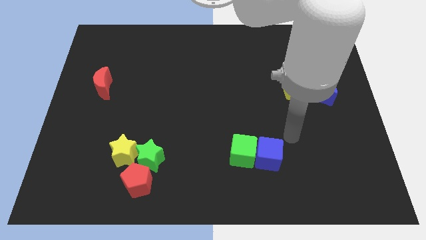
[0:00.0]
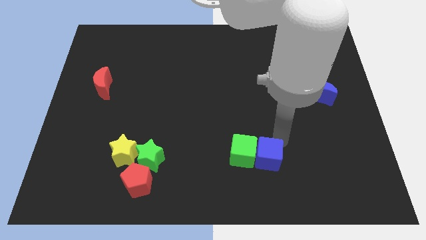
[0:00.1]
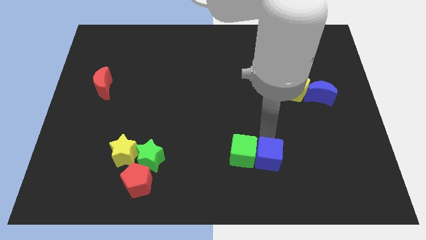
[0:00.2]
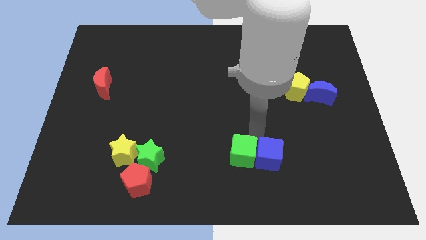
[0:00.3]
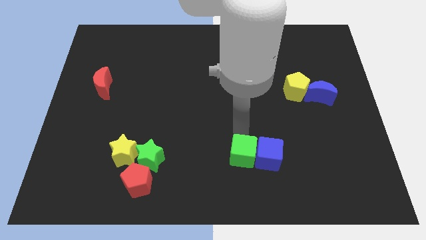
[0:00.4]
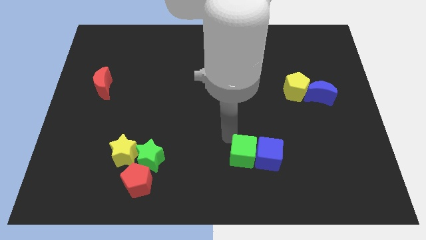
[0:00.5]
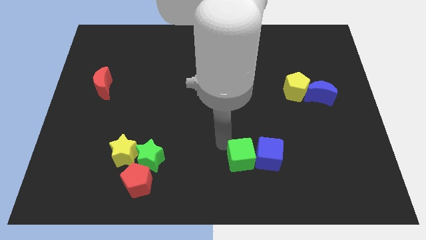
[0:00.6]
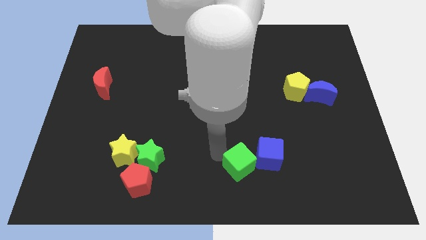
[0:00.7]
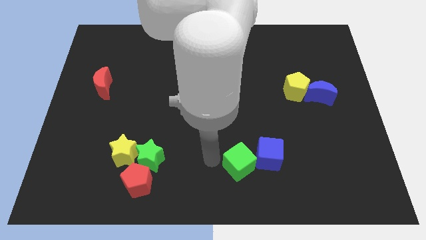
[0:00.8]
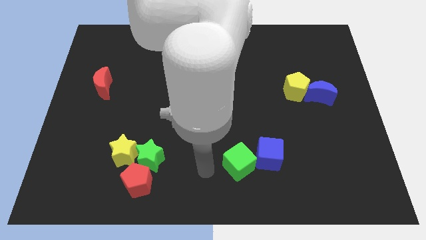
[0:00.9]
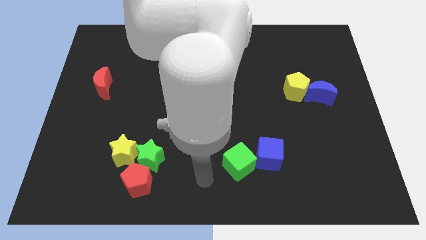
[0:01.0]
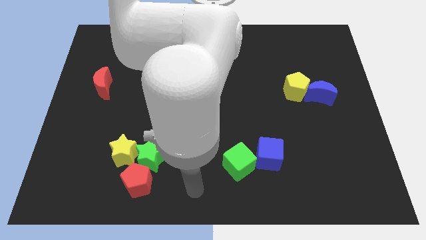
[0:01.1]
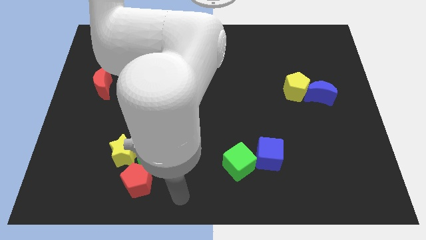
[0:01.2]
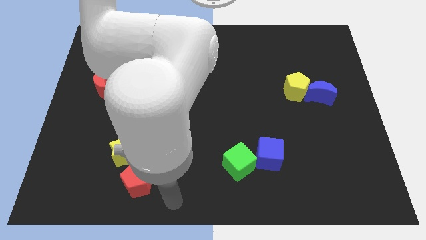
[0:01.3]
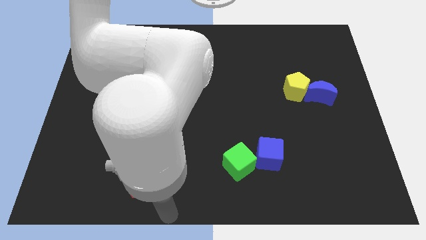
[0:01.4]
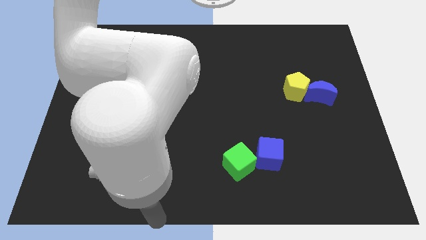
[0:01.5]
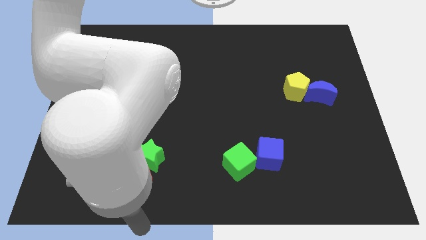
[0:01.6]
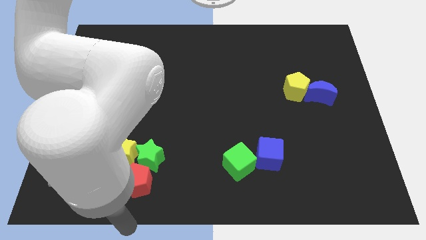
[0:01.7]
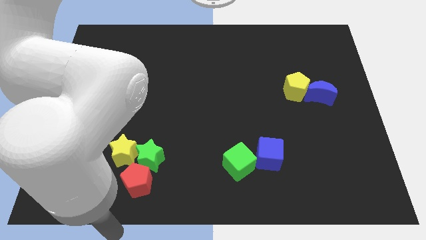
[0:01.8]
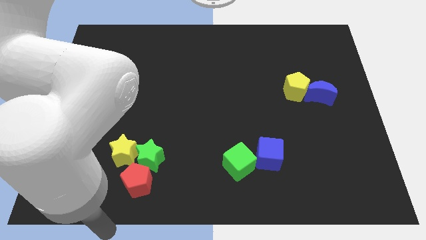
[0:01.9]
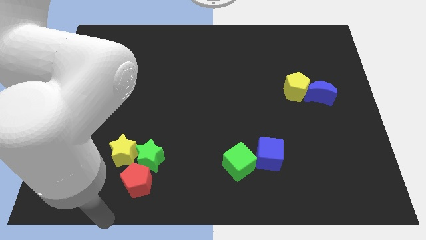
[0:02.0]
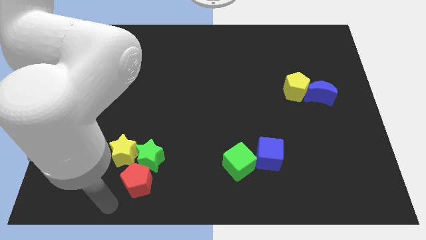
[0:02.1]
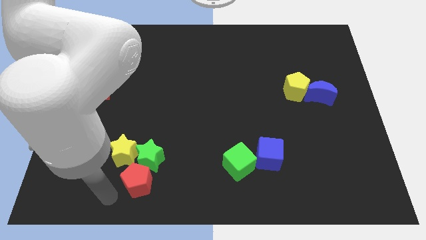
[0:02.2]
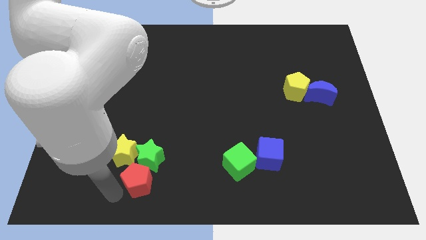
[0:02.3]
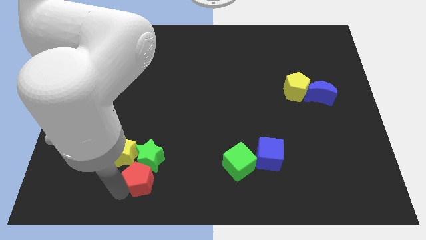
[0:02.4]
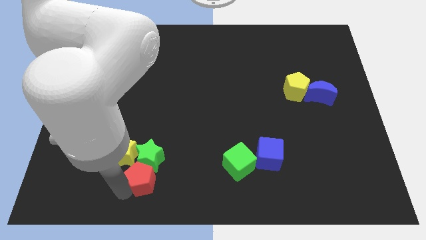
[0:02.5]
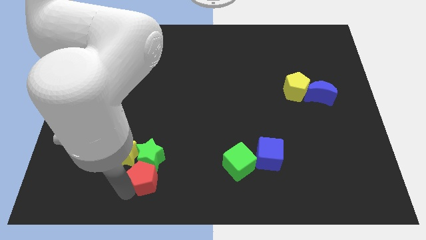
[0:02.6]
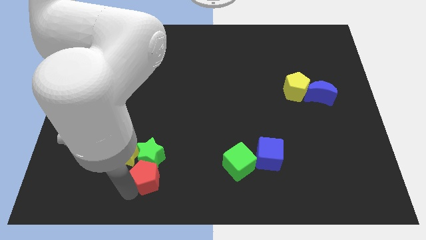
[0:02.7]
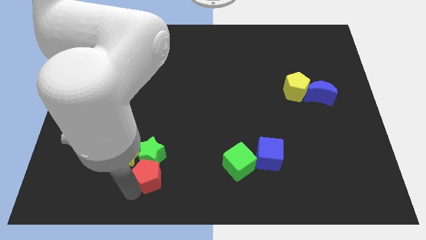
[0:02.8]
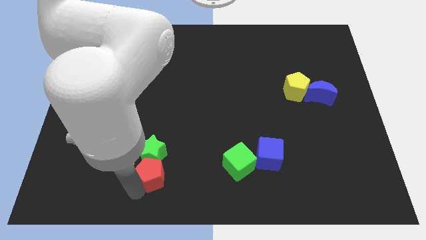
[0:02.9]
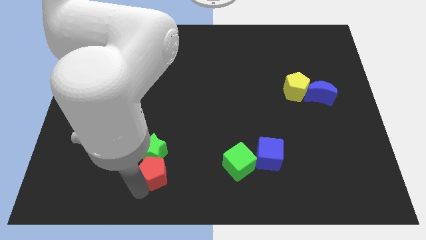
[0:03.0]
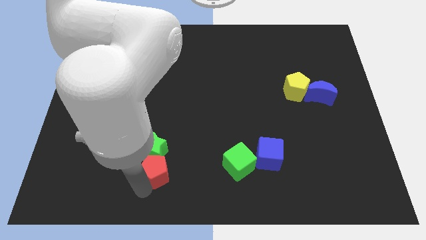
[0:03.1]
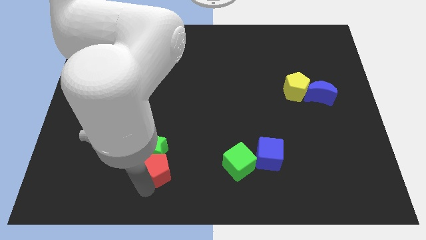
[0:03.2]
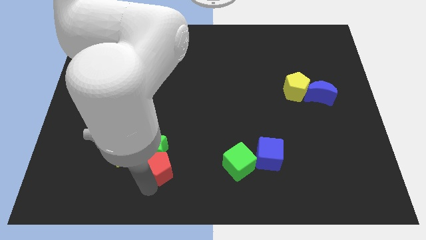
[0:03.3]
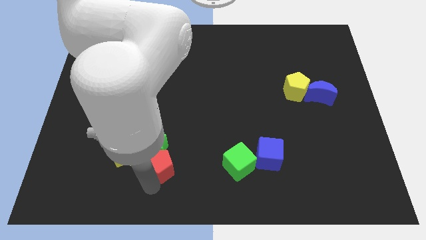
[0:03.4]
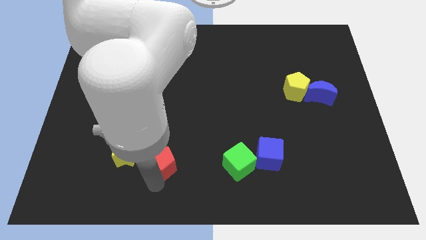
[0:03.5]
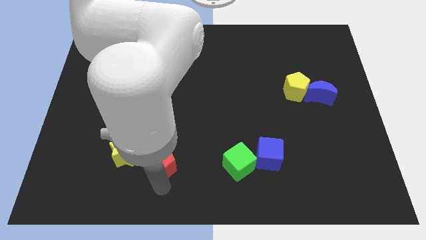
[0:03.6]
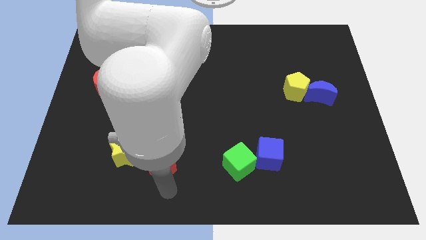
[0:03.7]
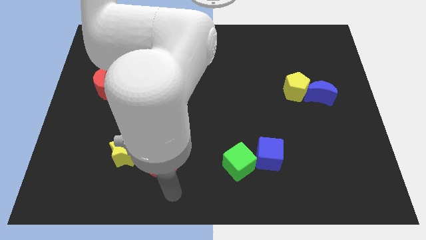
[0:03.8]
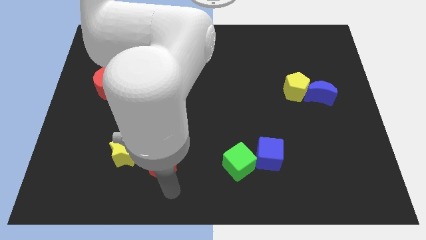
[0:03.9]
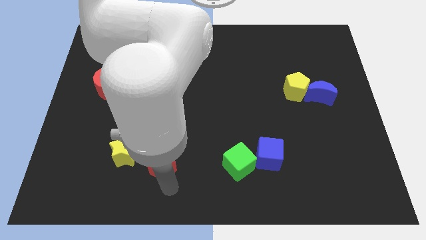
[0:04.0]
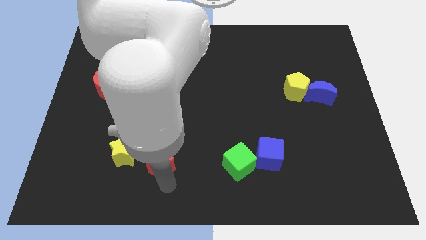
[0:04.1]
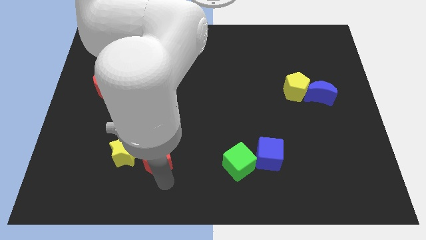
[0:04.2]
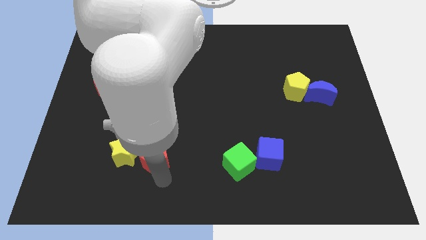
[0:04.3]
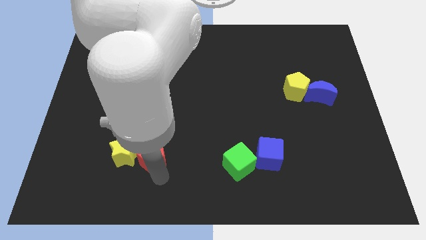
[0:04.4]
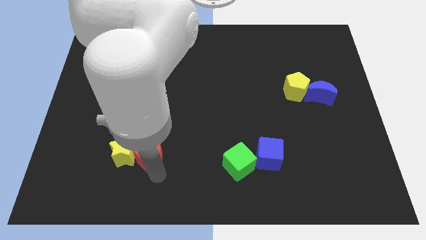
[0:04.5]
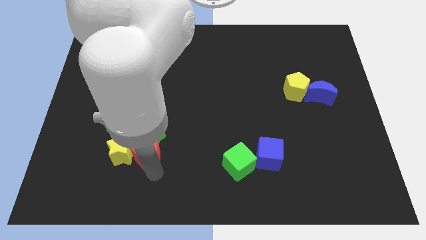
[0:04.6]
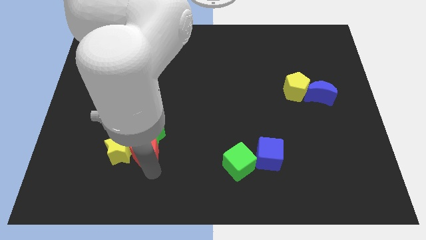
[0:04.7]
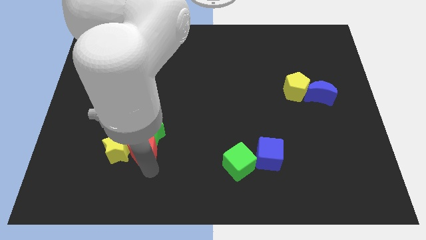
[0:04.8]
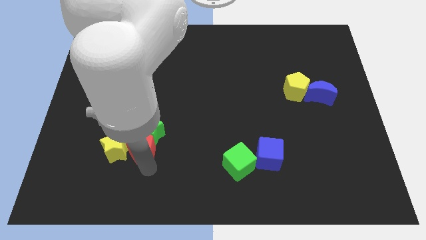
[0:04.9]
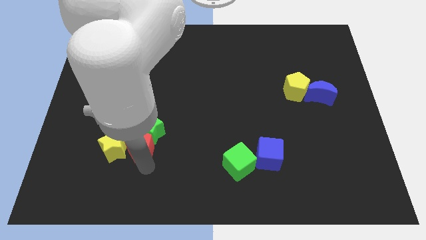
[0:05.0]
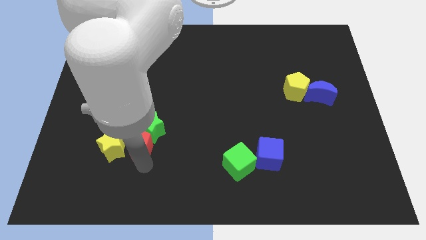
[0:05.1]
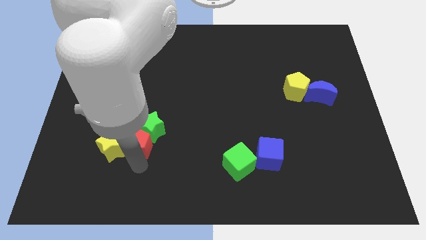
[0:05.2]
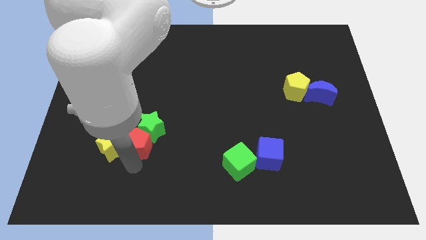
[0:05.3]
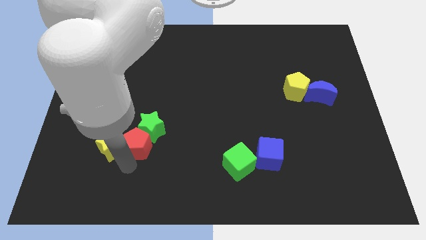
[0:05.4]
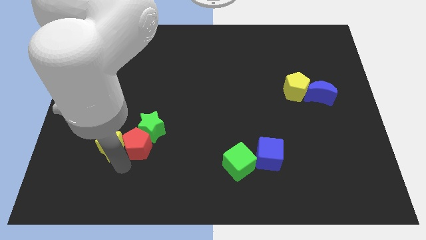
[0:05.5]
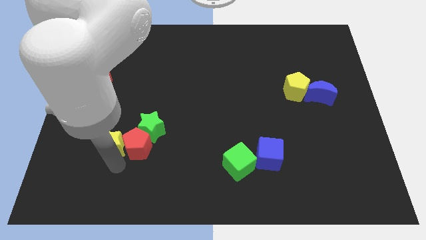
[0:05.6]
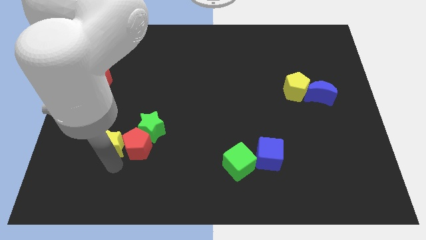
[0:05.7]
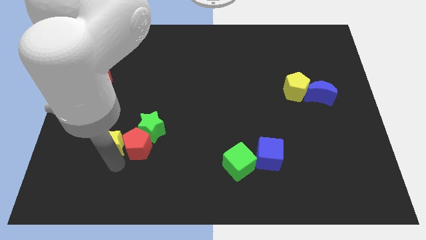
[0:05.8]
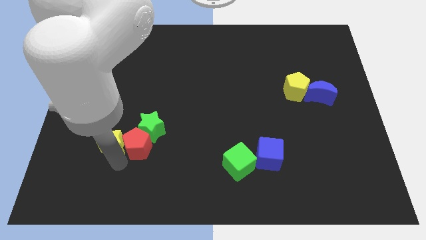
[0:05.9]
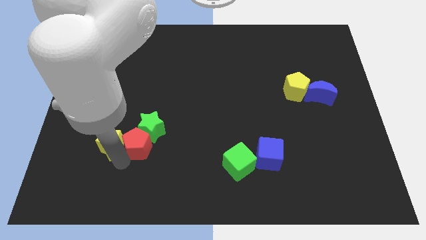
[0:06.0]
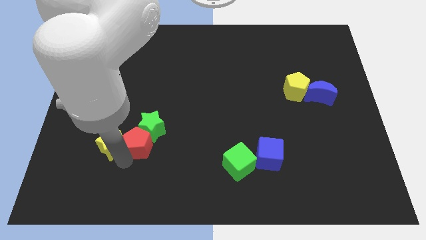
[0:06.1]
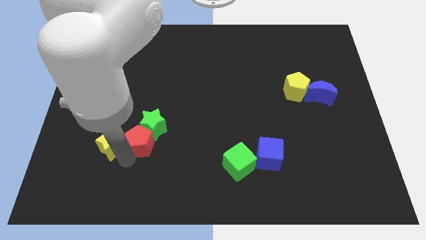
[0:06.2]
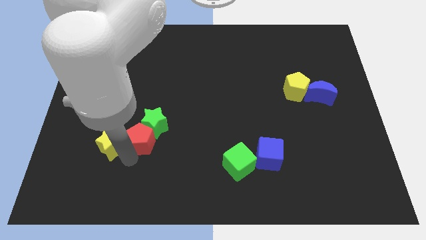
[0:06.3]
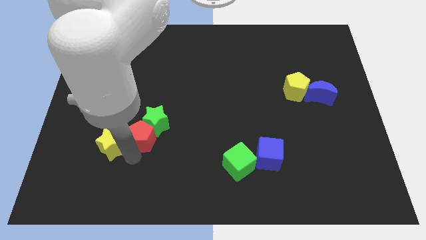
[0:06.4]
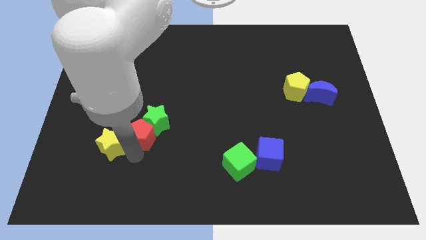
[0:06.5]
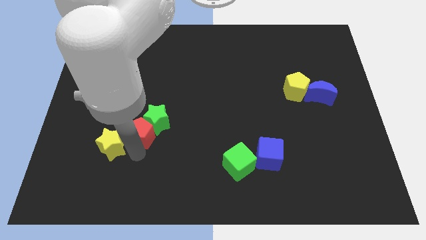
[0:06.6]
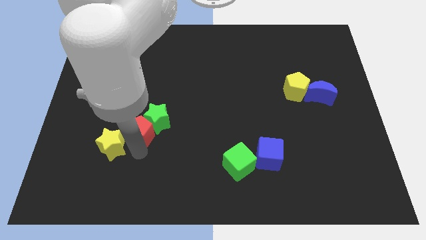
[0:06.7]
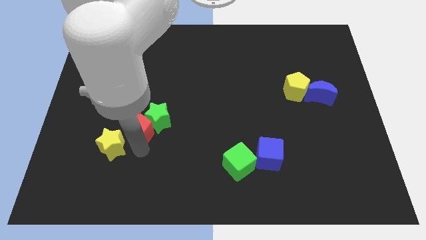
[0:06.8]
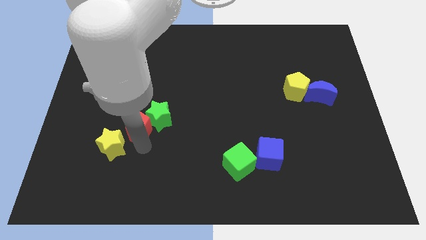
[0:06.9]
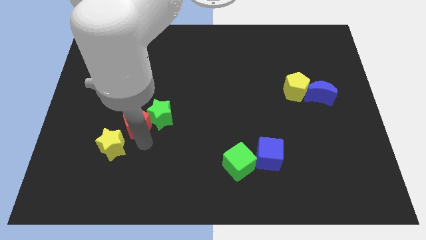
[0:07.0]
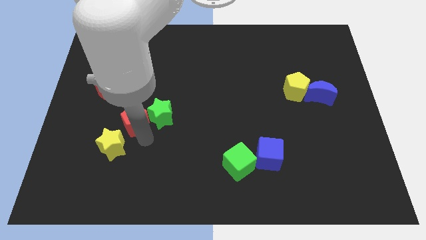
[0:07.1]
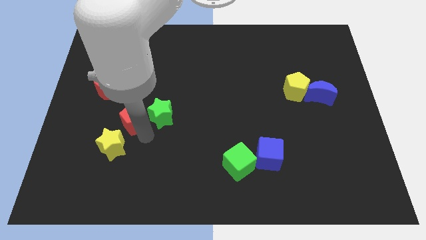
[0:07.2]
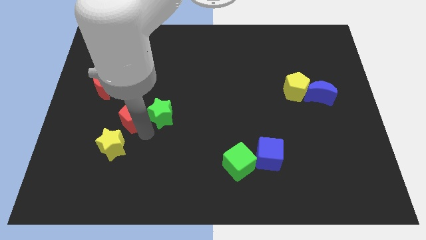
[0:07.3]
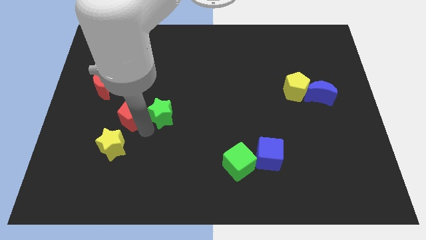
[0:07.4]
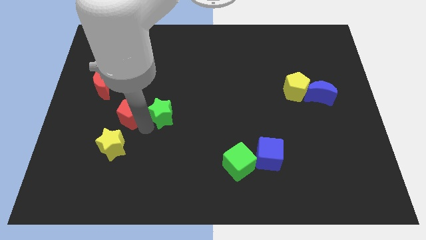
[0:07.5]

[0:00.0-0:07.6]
move the red pentagon to the bottom right side of the red moon
